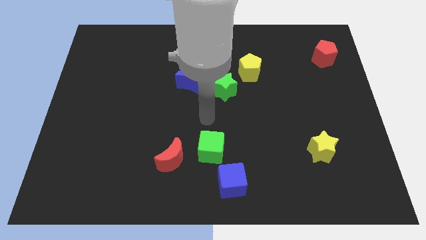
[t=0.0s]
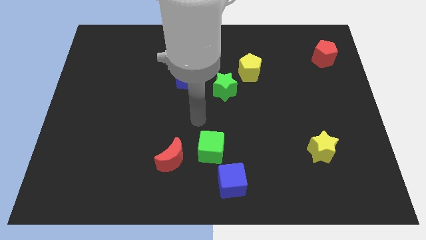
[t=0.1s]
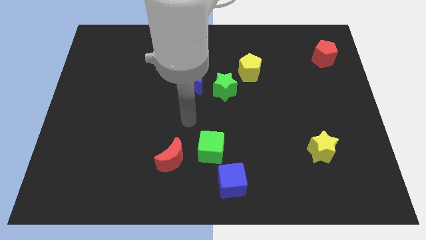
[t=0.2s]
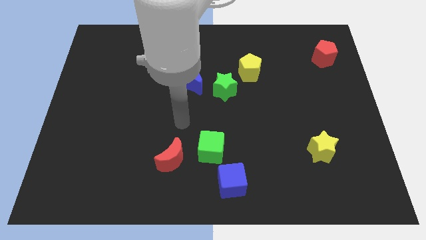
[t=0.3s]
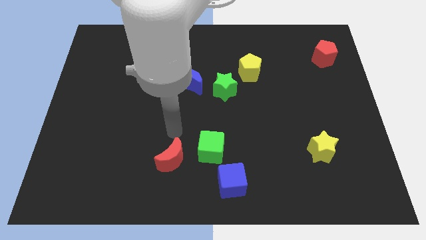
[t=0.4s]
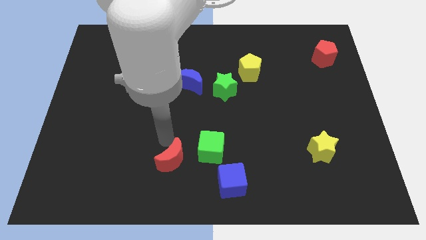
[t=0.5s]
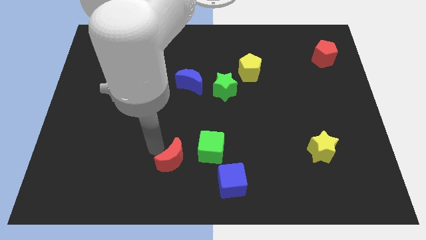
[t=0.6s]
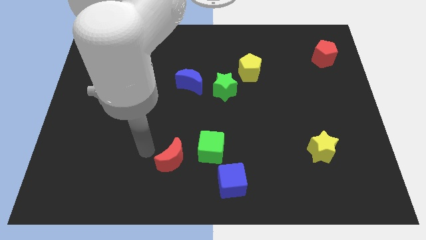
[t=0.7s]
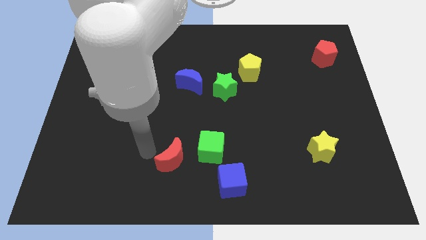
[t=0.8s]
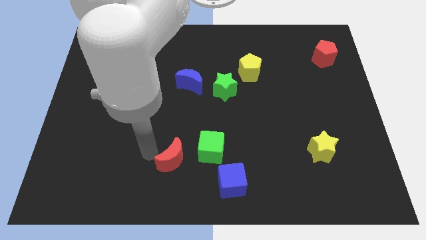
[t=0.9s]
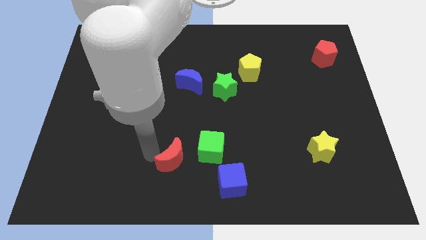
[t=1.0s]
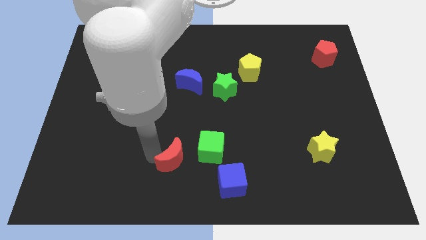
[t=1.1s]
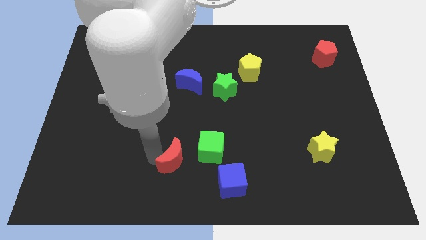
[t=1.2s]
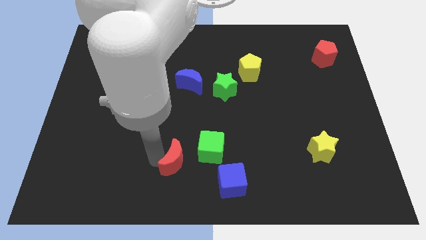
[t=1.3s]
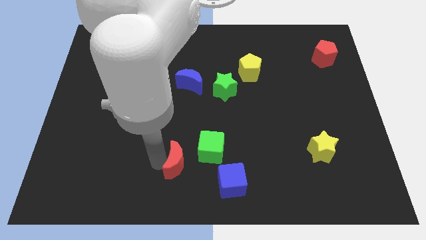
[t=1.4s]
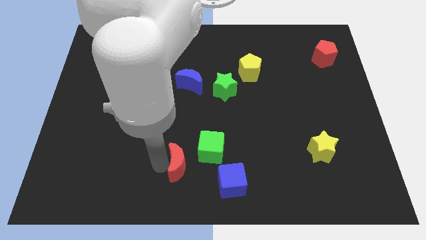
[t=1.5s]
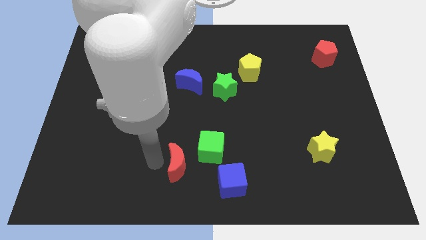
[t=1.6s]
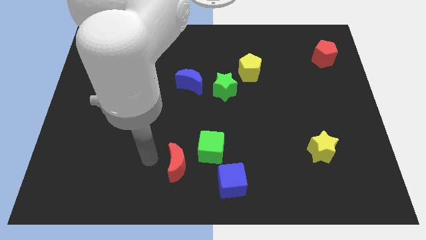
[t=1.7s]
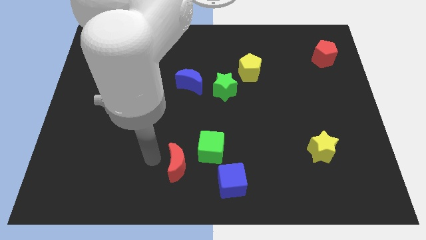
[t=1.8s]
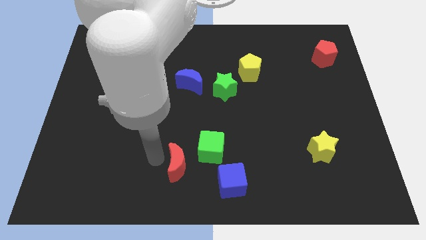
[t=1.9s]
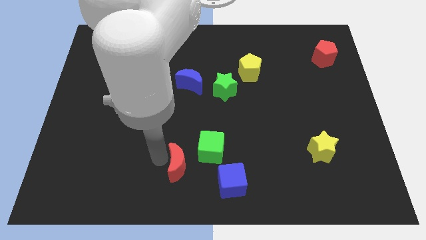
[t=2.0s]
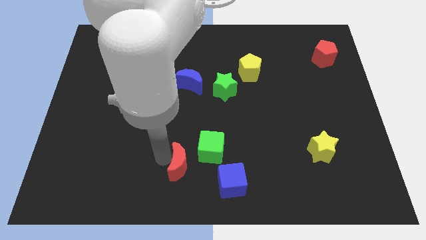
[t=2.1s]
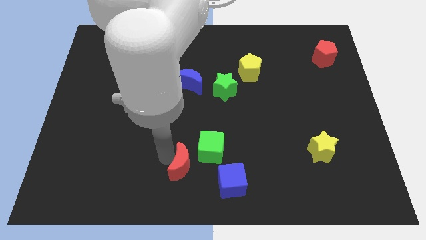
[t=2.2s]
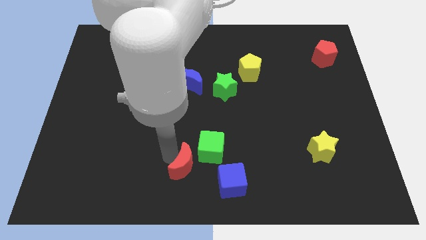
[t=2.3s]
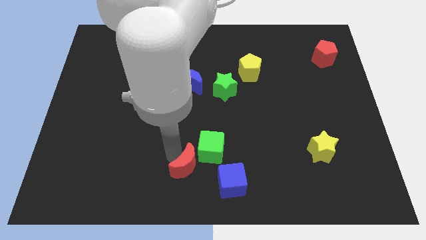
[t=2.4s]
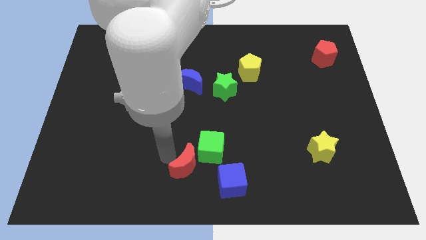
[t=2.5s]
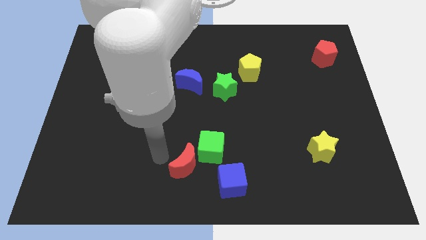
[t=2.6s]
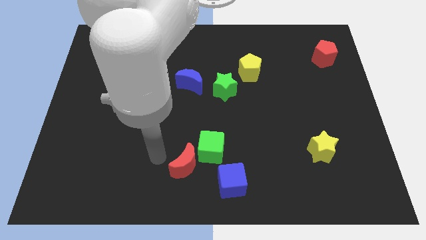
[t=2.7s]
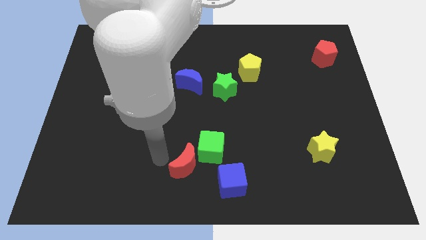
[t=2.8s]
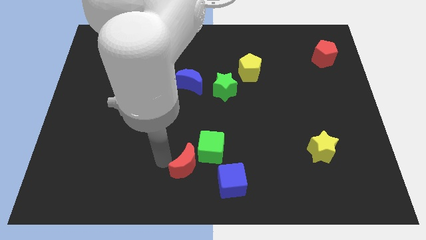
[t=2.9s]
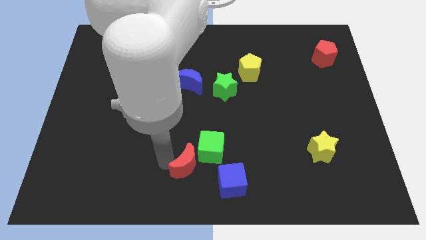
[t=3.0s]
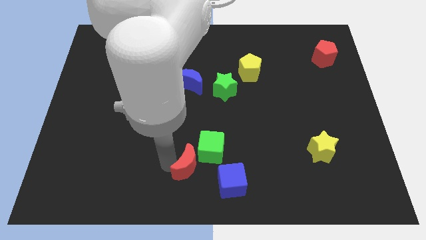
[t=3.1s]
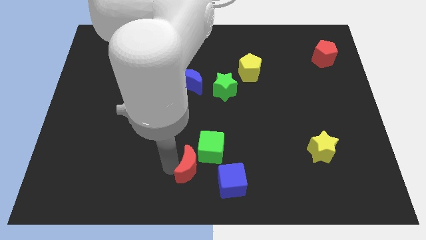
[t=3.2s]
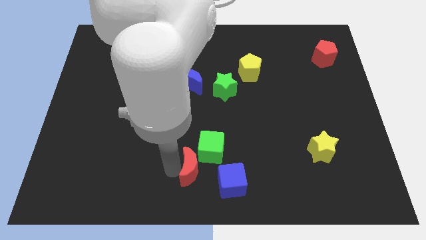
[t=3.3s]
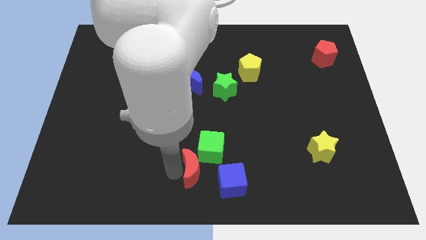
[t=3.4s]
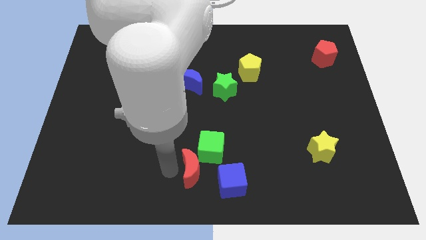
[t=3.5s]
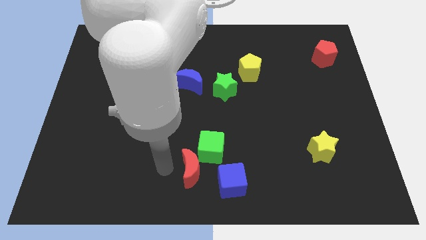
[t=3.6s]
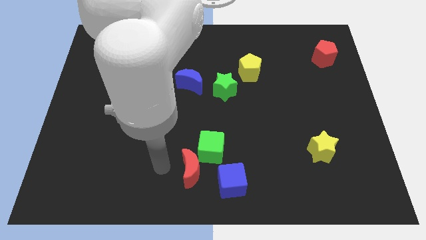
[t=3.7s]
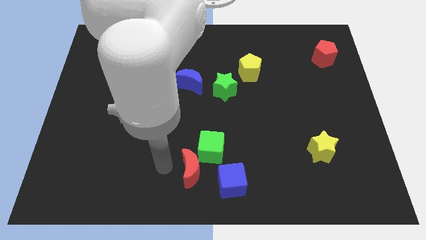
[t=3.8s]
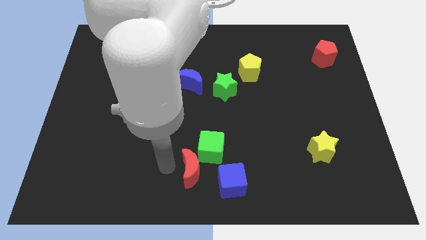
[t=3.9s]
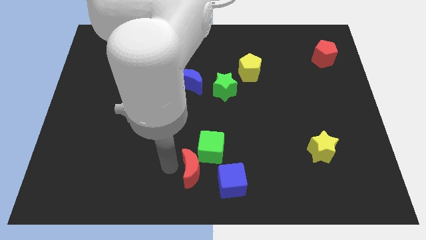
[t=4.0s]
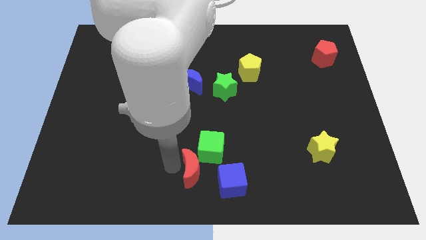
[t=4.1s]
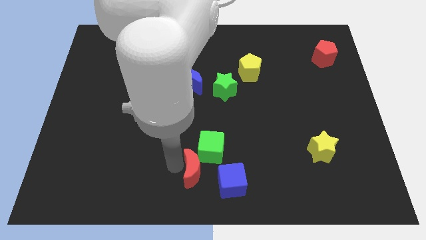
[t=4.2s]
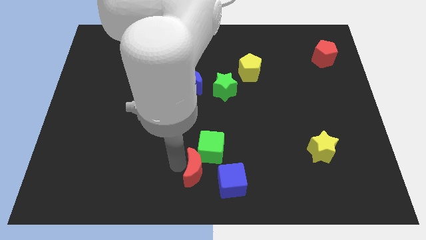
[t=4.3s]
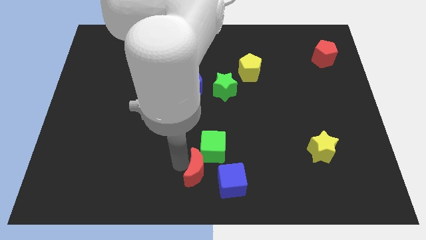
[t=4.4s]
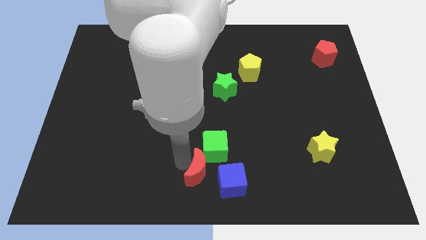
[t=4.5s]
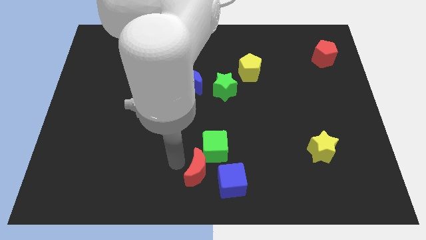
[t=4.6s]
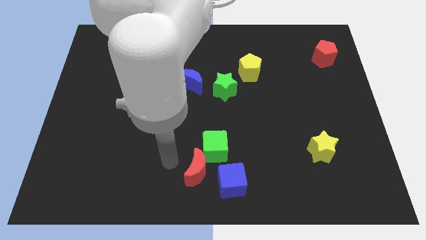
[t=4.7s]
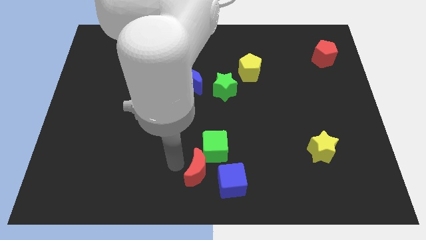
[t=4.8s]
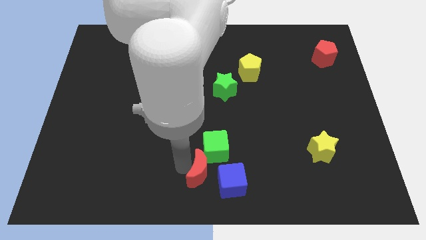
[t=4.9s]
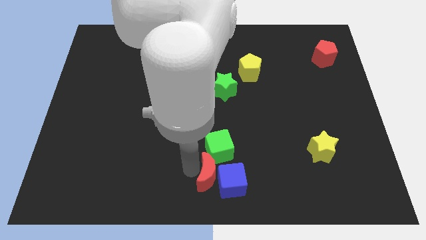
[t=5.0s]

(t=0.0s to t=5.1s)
put the red moon to the blue cube

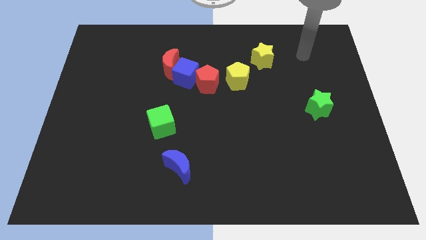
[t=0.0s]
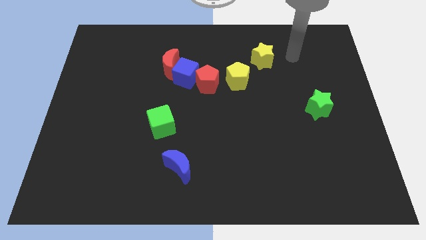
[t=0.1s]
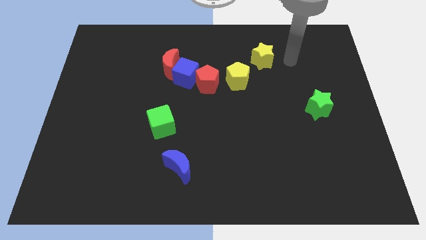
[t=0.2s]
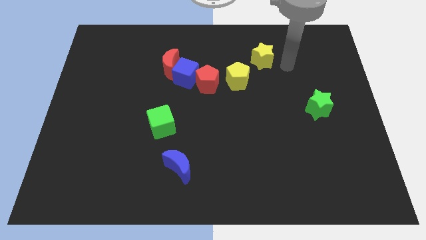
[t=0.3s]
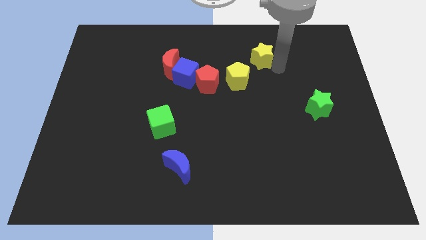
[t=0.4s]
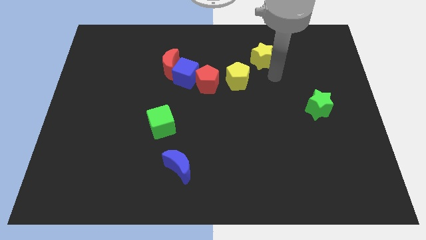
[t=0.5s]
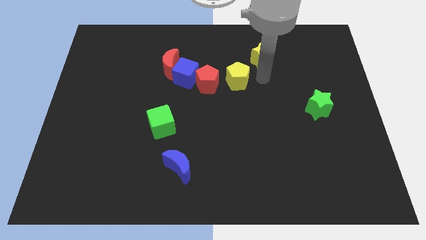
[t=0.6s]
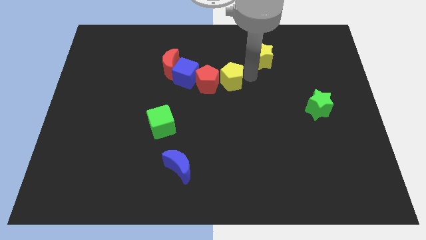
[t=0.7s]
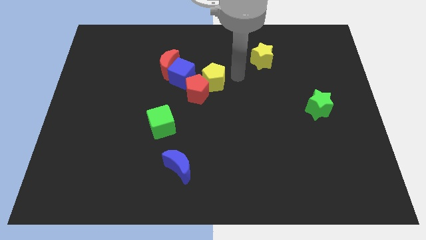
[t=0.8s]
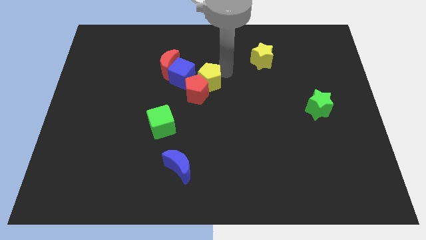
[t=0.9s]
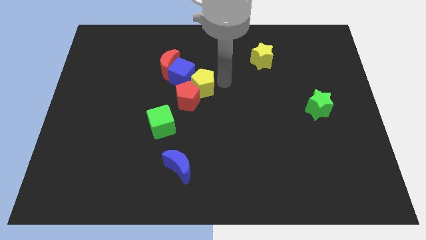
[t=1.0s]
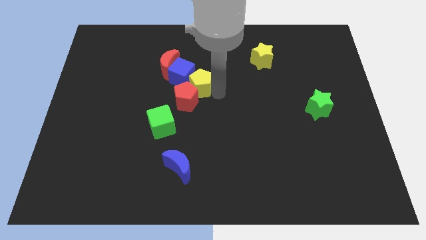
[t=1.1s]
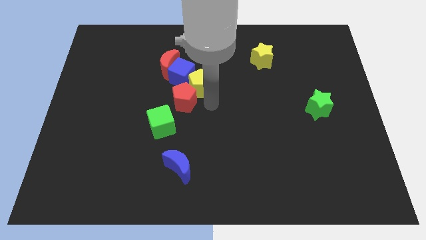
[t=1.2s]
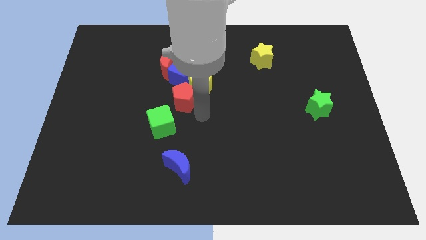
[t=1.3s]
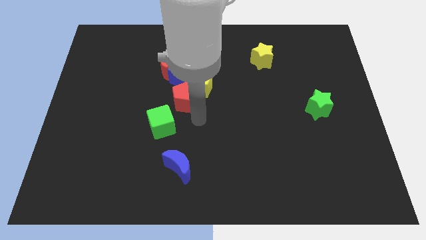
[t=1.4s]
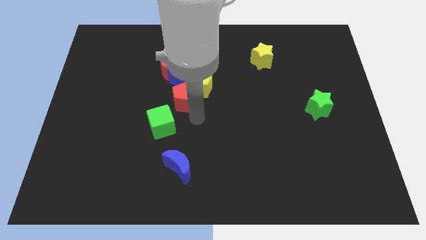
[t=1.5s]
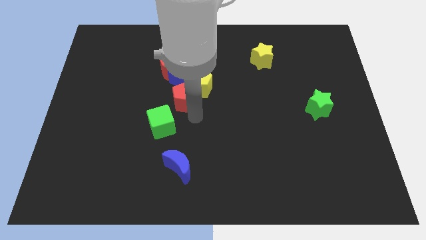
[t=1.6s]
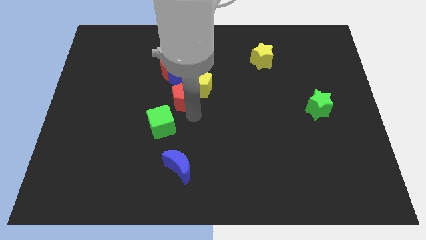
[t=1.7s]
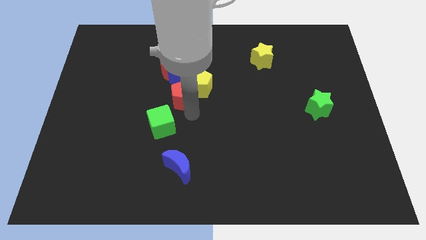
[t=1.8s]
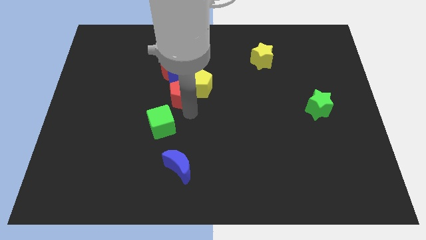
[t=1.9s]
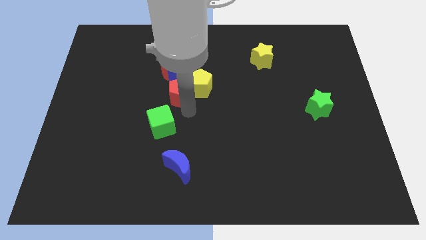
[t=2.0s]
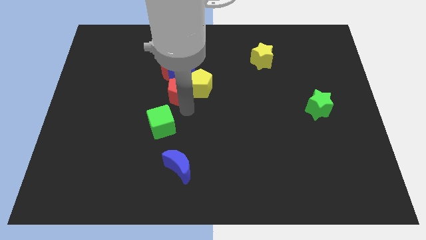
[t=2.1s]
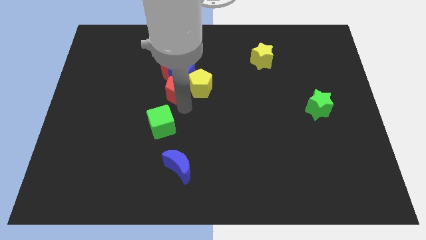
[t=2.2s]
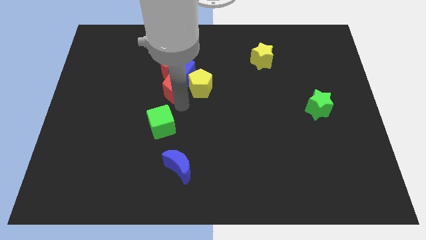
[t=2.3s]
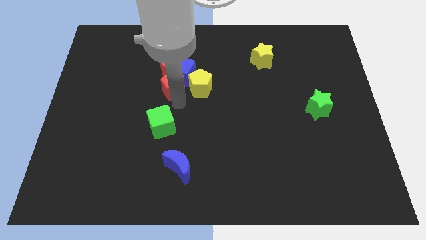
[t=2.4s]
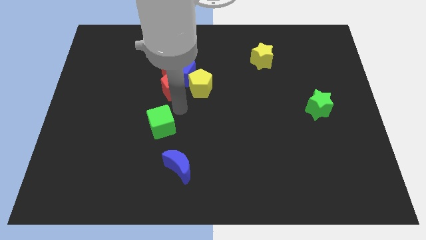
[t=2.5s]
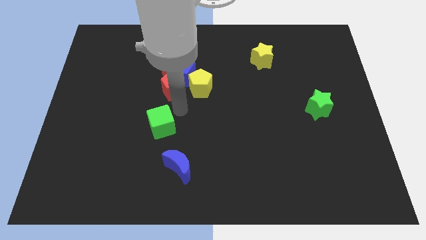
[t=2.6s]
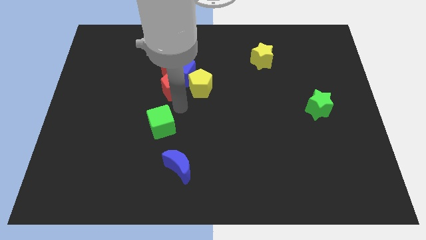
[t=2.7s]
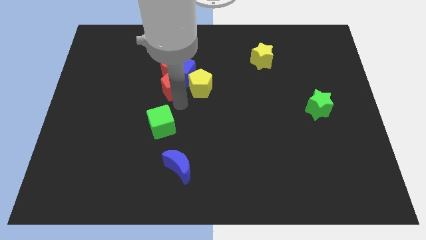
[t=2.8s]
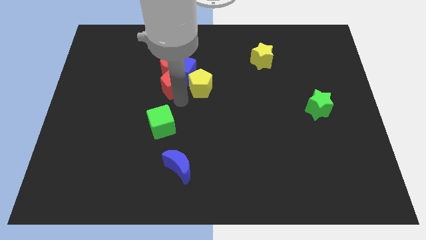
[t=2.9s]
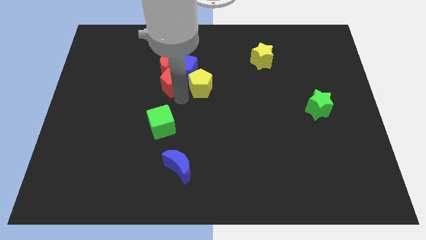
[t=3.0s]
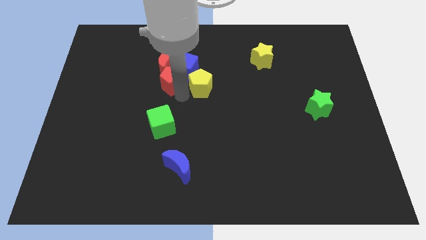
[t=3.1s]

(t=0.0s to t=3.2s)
put the red pentagon to the red moon
